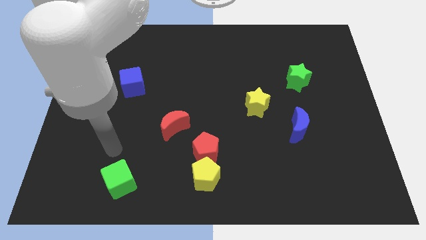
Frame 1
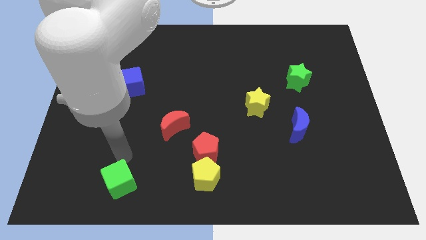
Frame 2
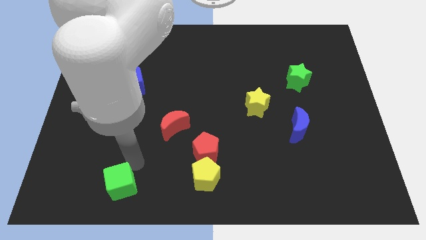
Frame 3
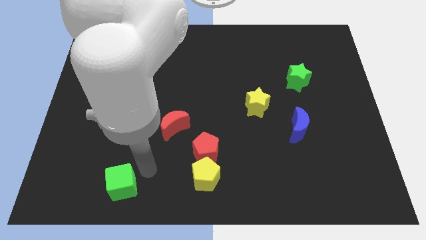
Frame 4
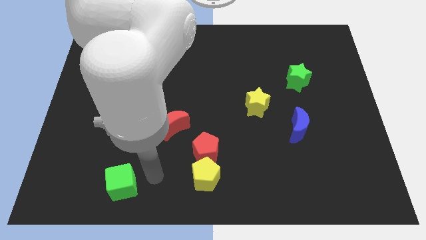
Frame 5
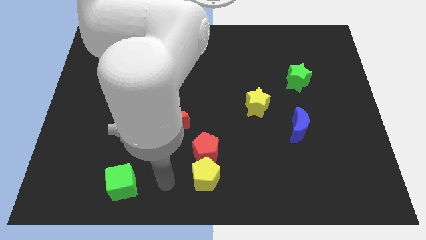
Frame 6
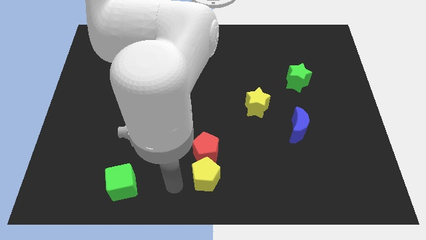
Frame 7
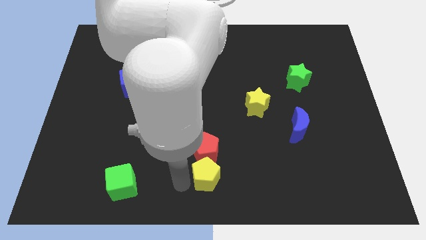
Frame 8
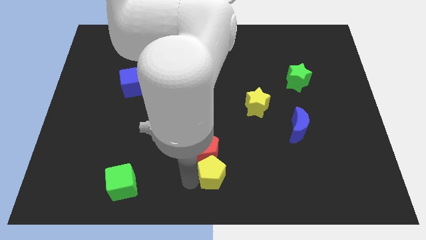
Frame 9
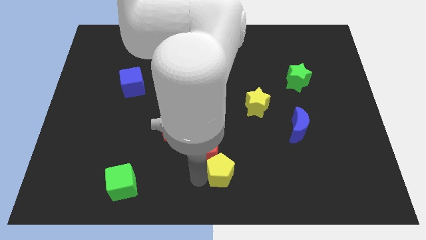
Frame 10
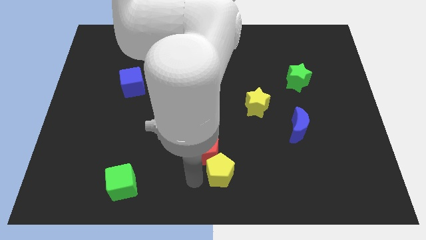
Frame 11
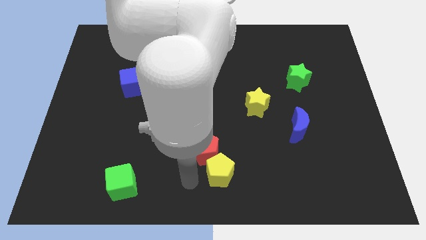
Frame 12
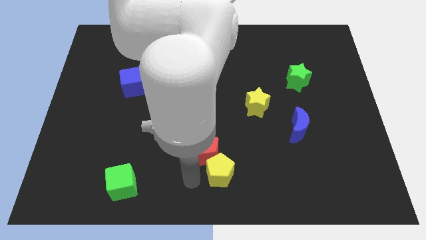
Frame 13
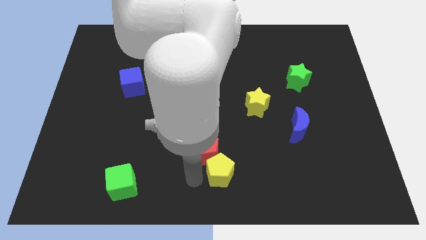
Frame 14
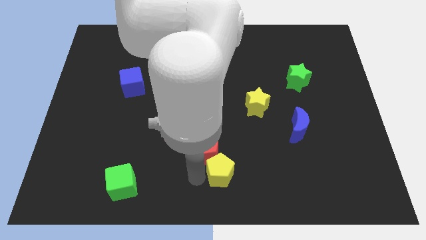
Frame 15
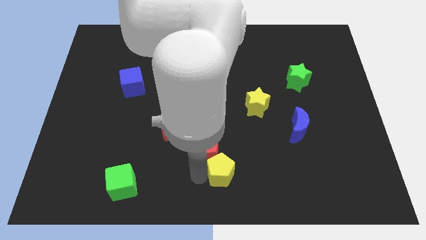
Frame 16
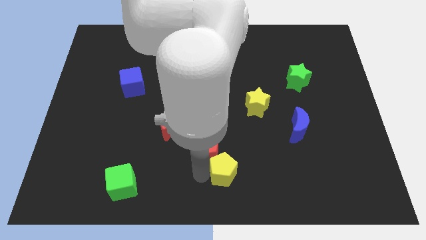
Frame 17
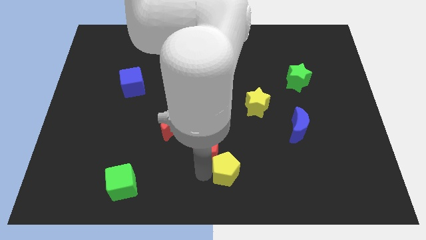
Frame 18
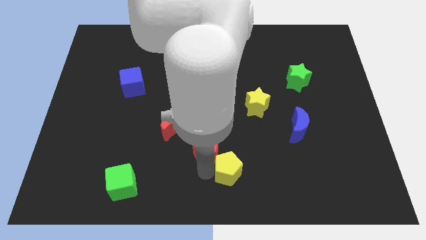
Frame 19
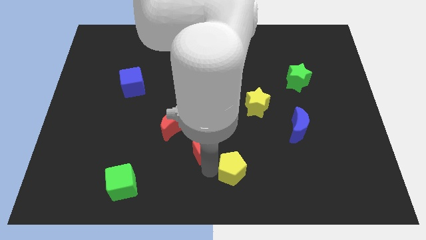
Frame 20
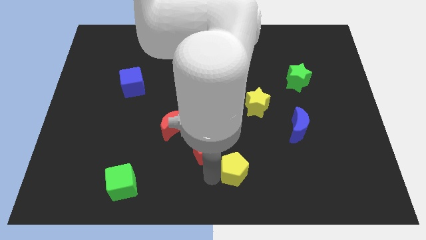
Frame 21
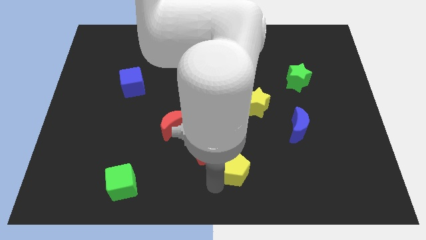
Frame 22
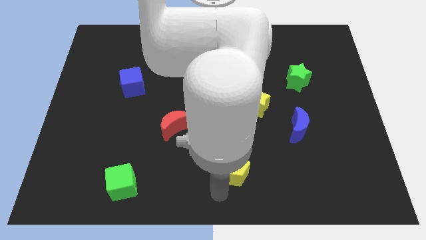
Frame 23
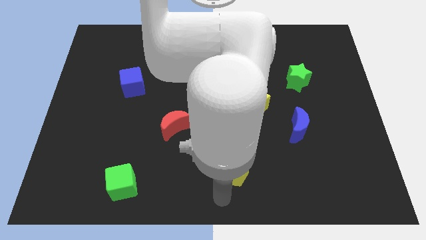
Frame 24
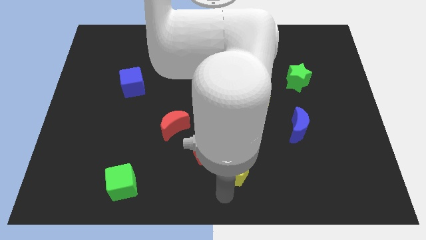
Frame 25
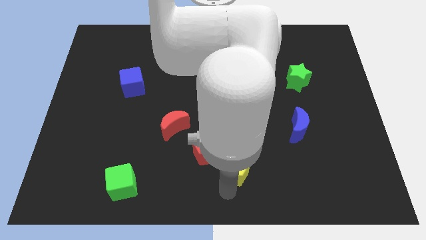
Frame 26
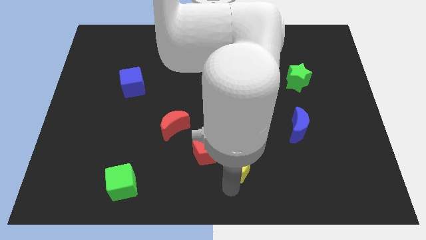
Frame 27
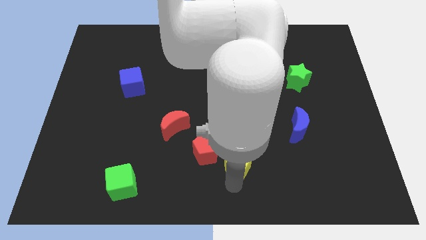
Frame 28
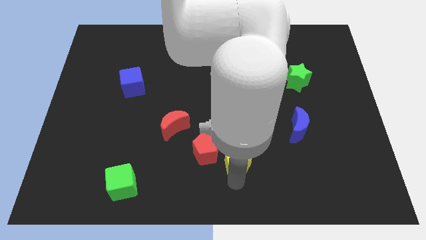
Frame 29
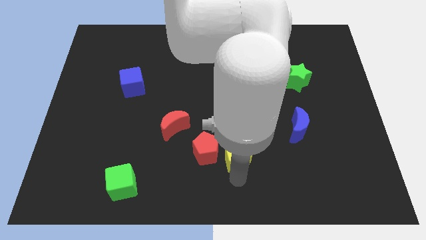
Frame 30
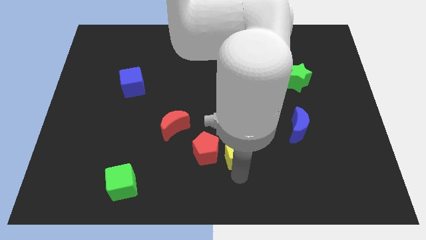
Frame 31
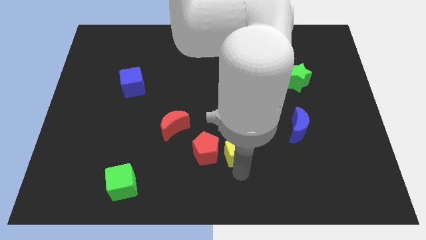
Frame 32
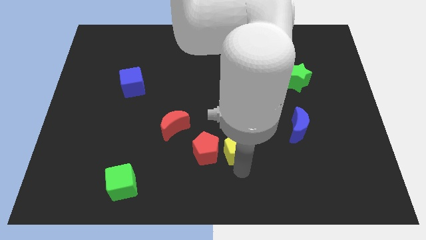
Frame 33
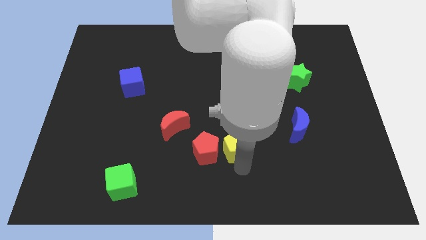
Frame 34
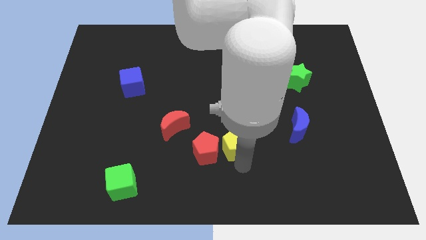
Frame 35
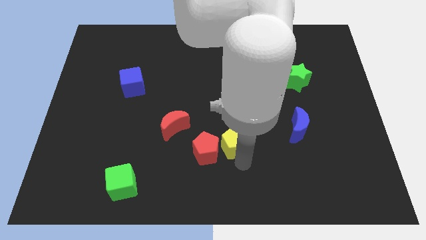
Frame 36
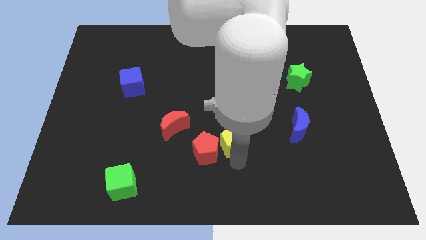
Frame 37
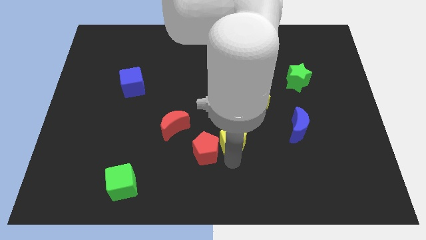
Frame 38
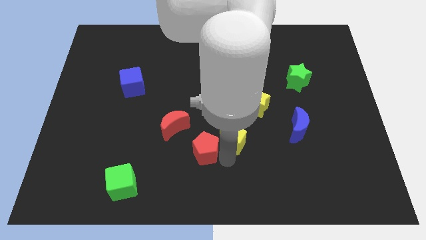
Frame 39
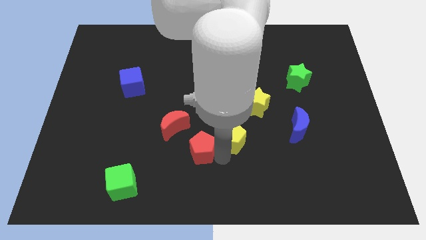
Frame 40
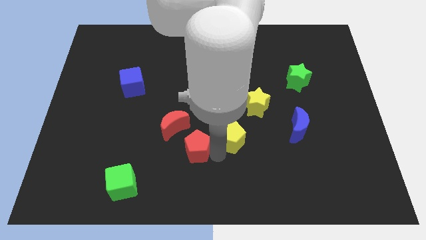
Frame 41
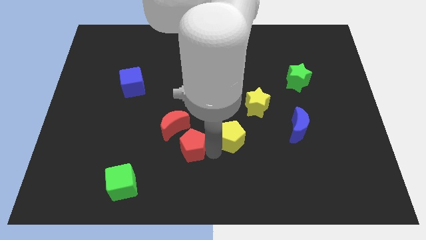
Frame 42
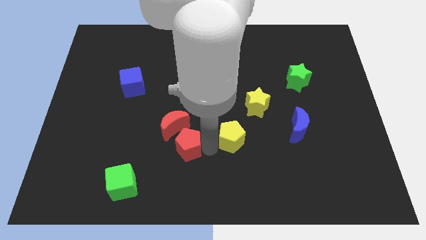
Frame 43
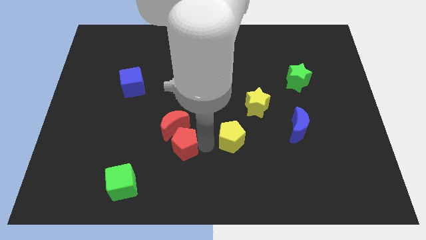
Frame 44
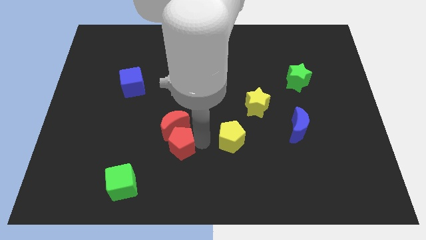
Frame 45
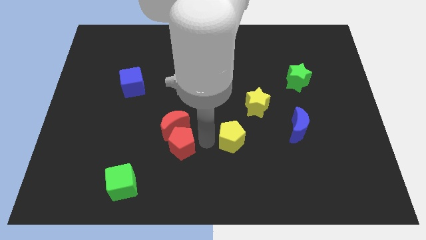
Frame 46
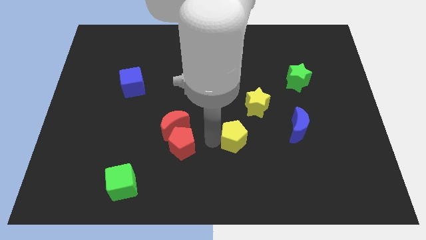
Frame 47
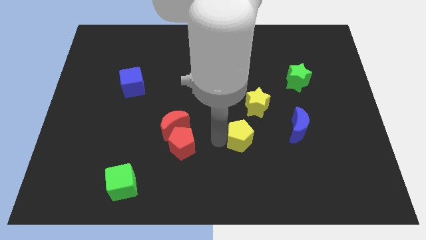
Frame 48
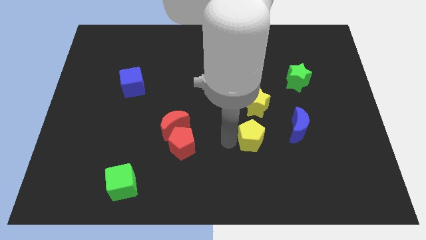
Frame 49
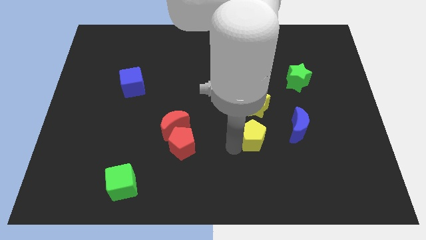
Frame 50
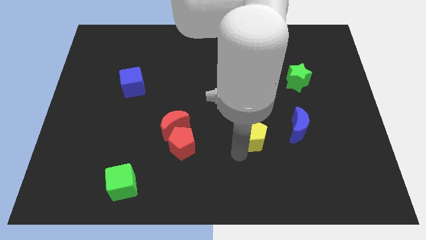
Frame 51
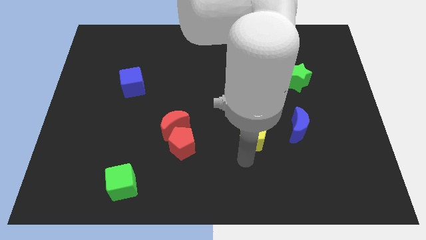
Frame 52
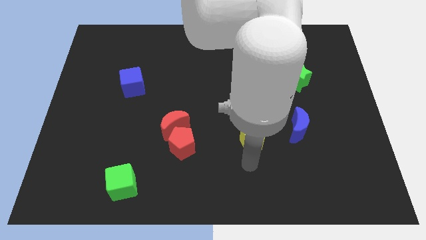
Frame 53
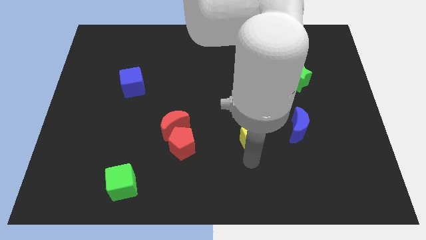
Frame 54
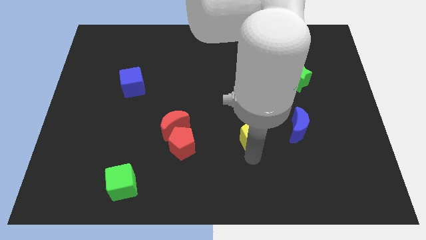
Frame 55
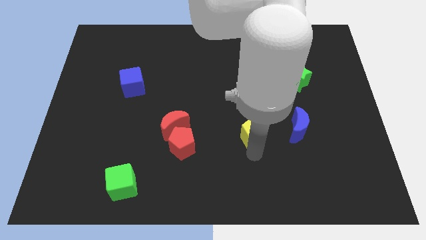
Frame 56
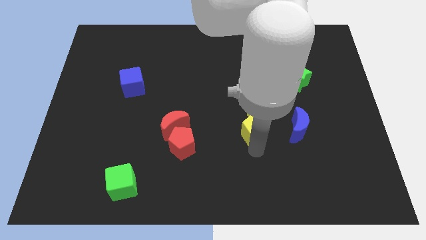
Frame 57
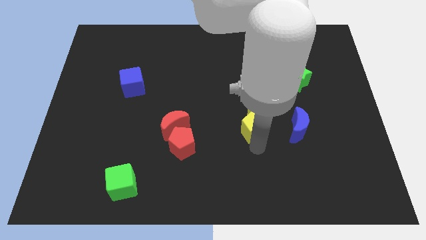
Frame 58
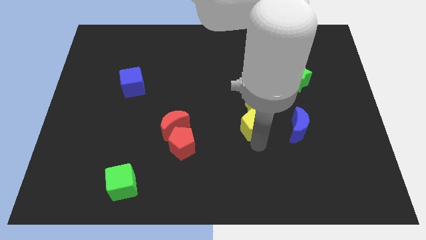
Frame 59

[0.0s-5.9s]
slide the yellow pentagon next to the yellow star

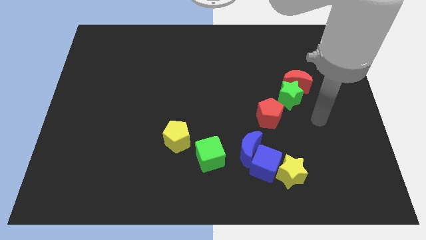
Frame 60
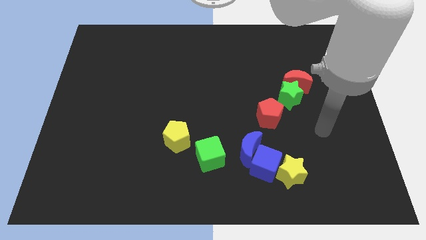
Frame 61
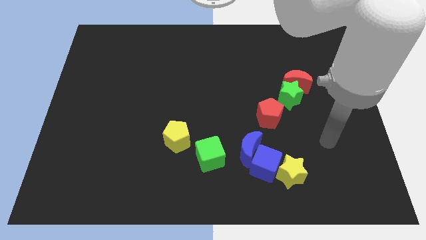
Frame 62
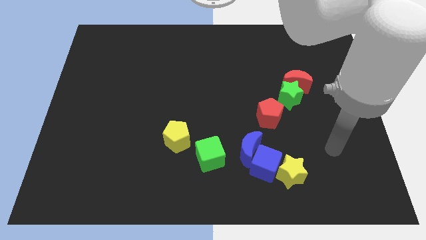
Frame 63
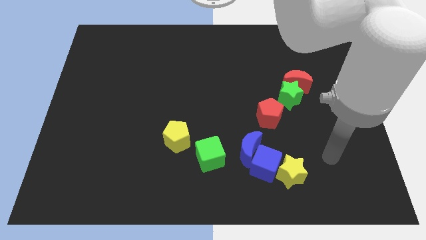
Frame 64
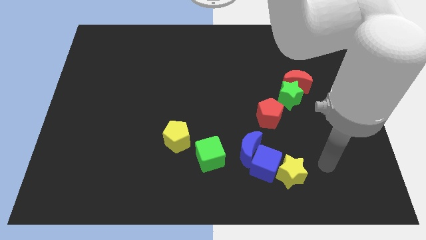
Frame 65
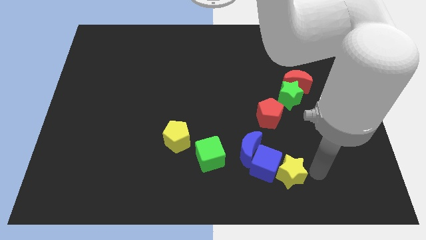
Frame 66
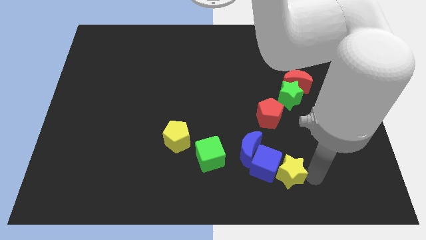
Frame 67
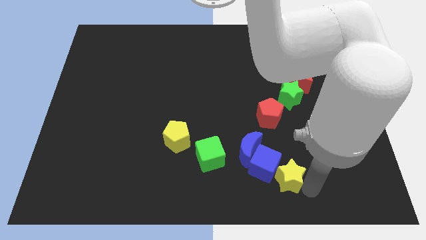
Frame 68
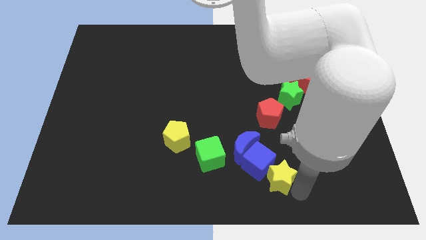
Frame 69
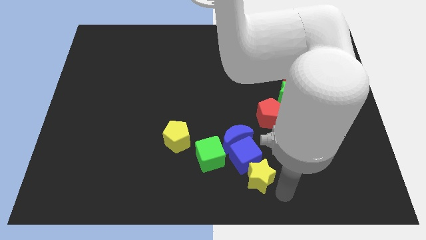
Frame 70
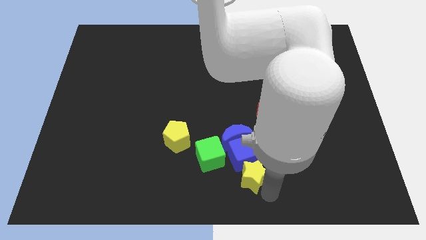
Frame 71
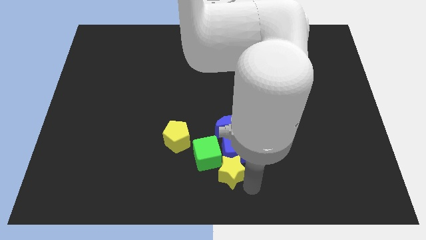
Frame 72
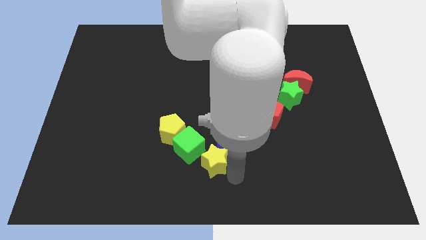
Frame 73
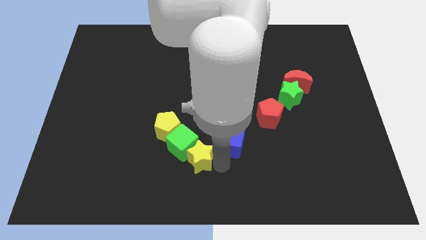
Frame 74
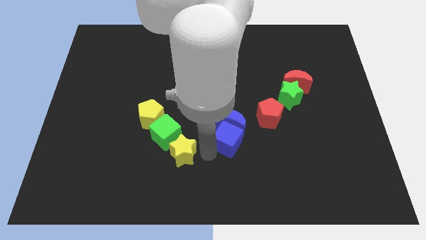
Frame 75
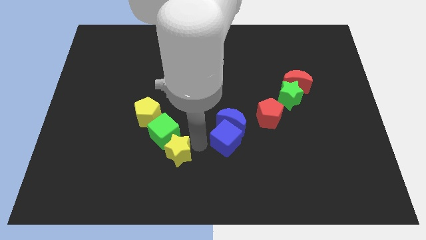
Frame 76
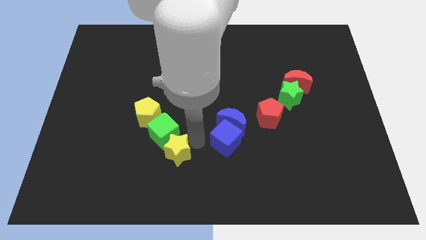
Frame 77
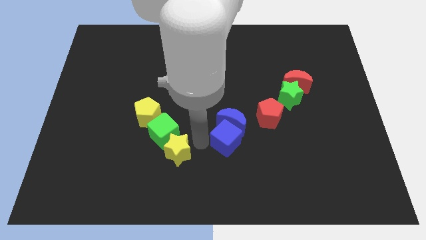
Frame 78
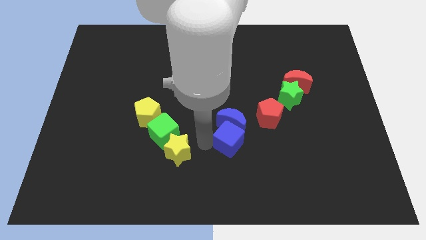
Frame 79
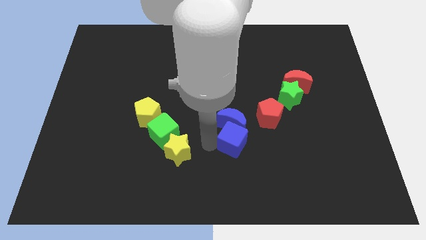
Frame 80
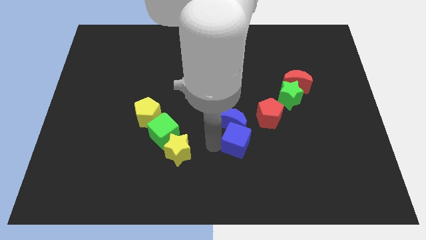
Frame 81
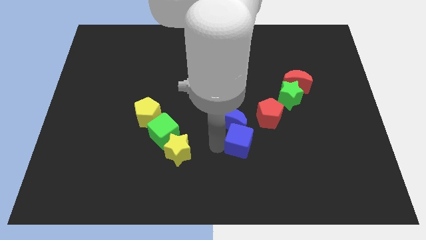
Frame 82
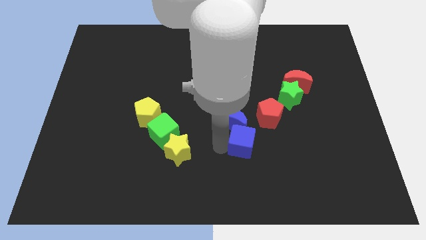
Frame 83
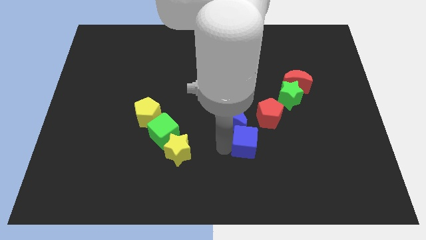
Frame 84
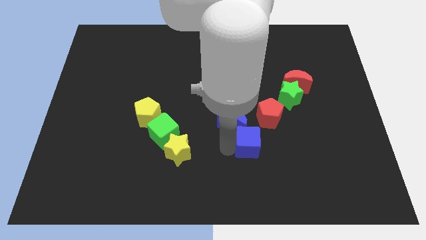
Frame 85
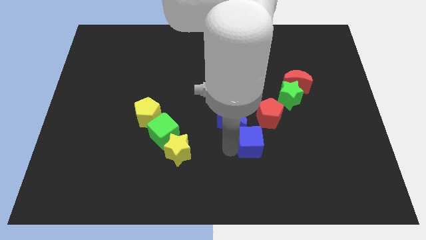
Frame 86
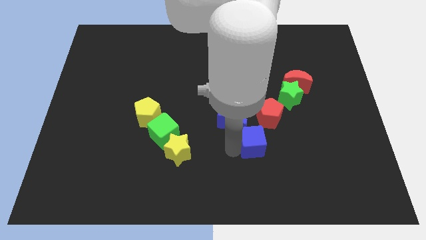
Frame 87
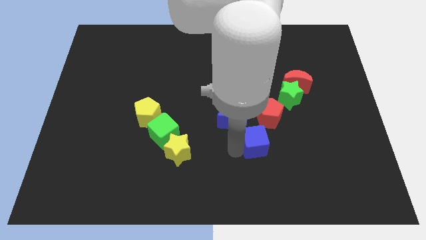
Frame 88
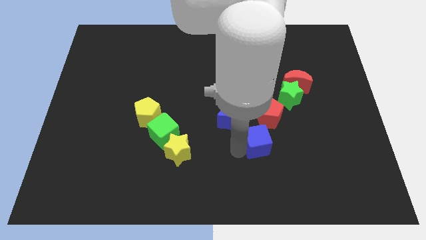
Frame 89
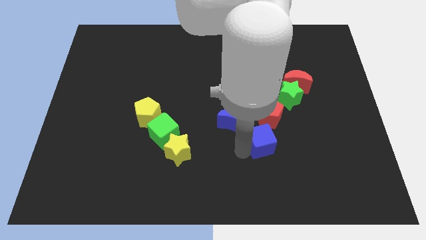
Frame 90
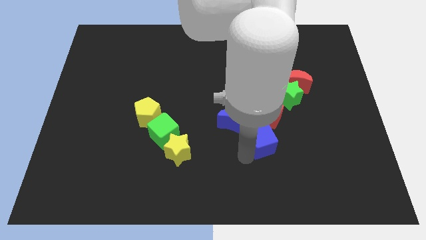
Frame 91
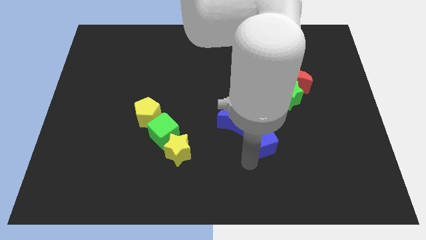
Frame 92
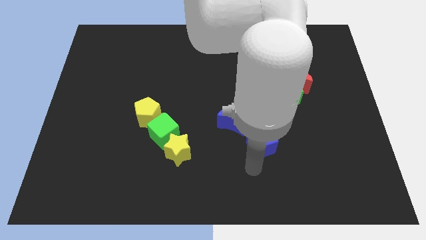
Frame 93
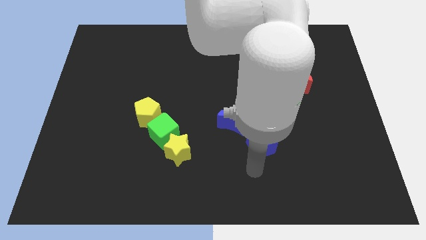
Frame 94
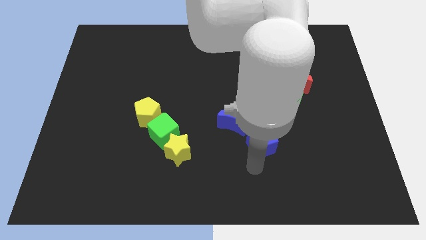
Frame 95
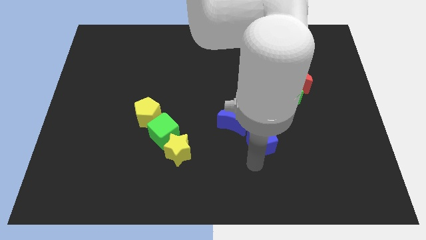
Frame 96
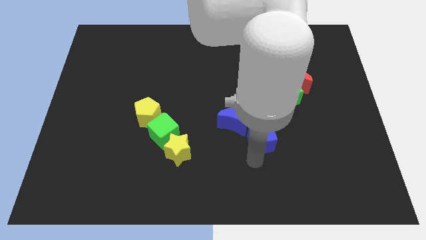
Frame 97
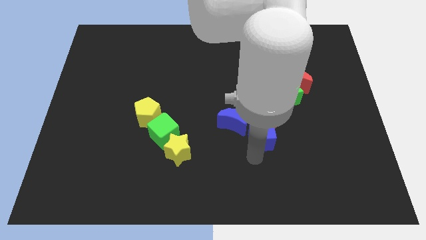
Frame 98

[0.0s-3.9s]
slide the blue cube next to the red pentagon
